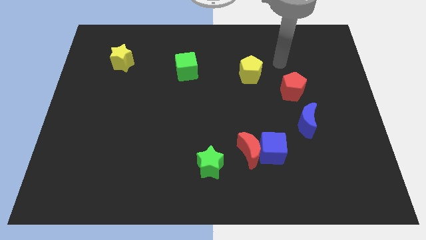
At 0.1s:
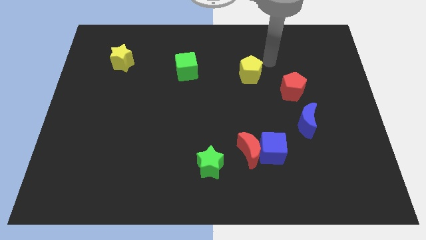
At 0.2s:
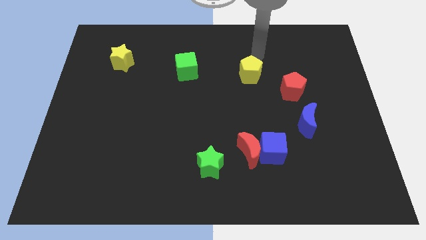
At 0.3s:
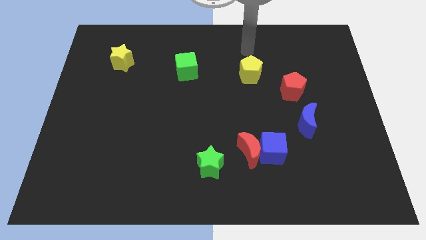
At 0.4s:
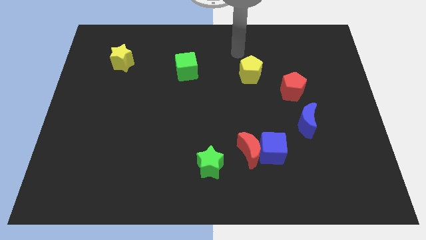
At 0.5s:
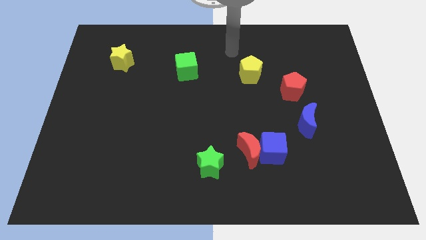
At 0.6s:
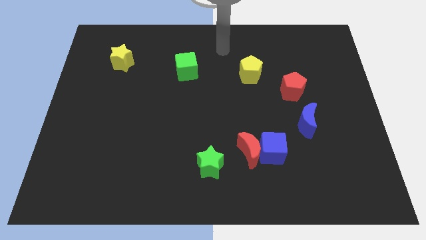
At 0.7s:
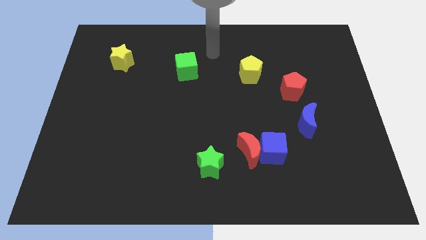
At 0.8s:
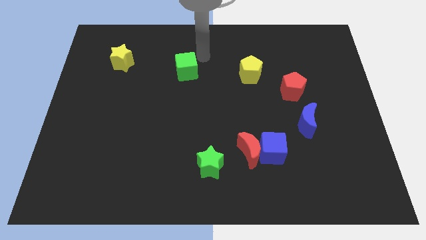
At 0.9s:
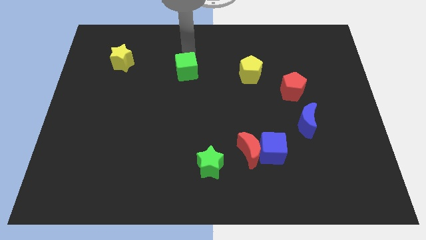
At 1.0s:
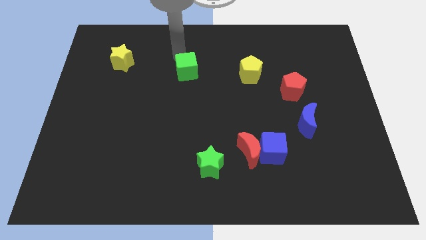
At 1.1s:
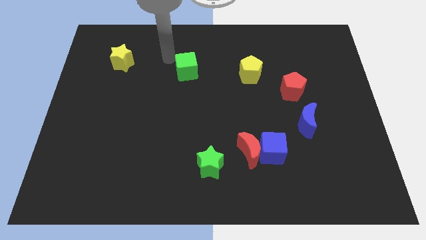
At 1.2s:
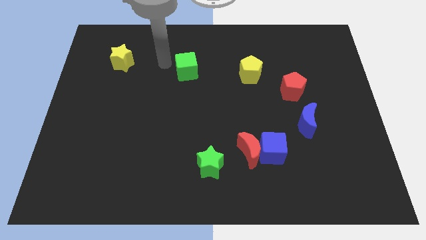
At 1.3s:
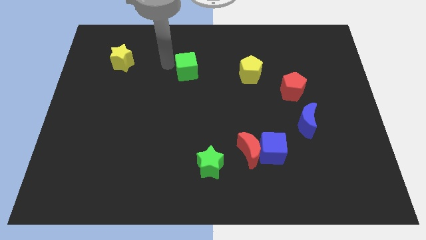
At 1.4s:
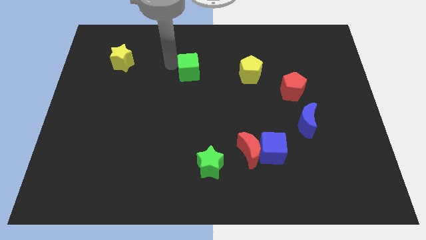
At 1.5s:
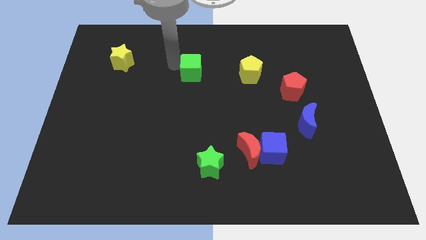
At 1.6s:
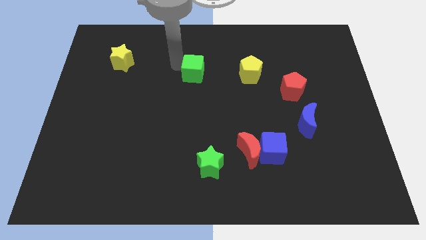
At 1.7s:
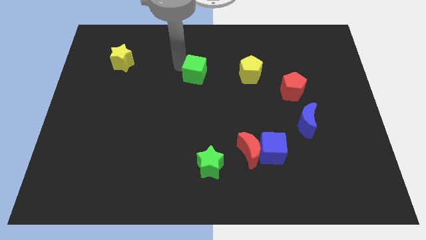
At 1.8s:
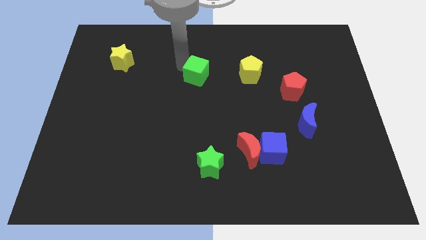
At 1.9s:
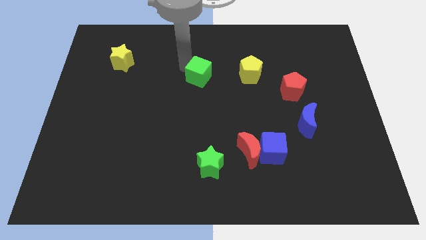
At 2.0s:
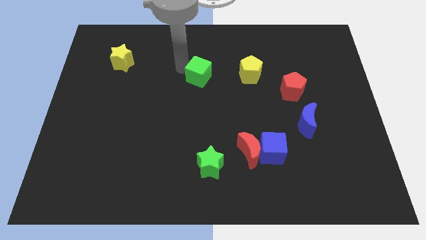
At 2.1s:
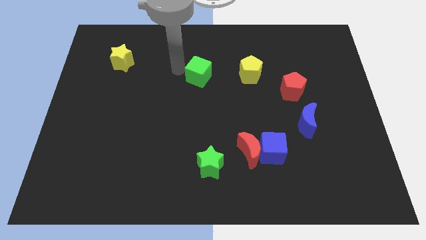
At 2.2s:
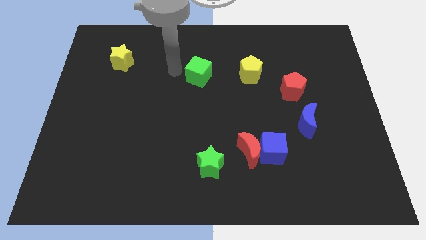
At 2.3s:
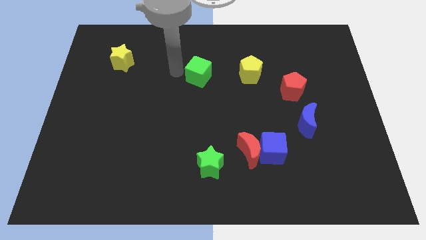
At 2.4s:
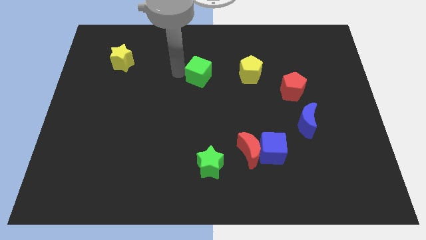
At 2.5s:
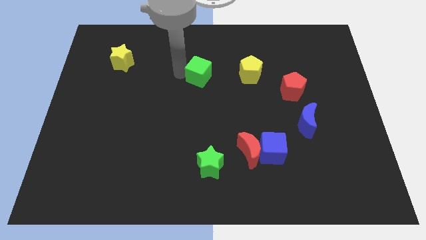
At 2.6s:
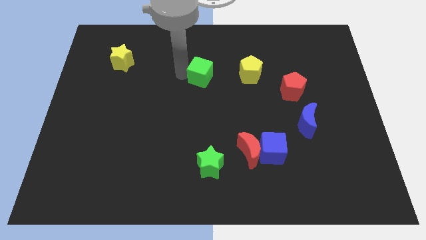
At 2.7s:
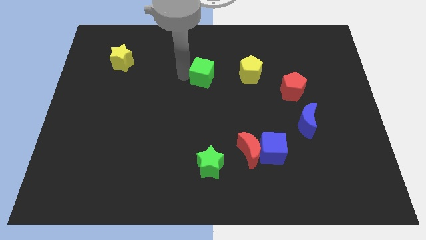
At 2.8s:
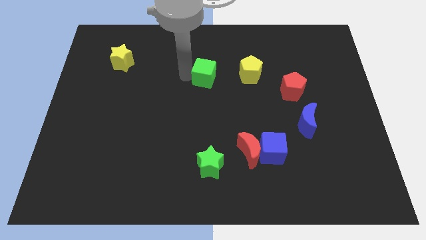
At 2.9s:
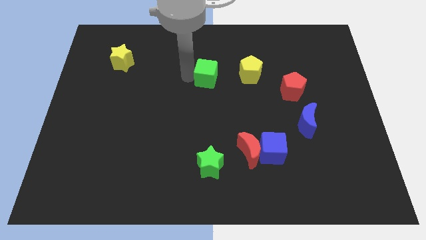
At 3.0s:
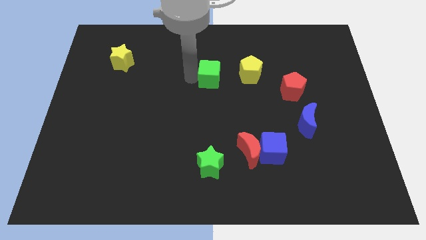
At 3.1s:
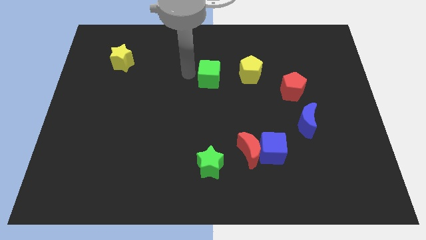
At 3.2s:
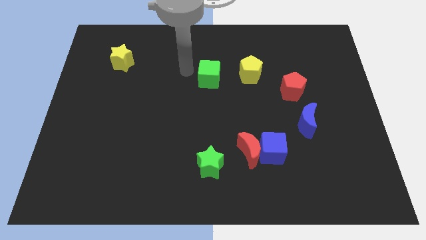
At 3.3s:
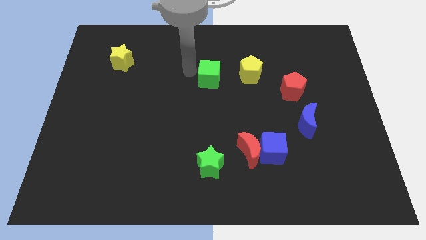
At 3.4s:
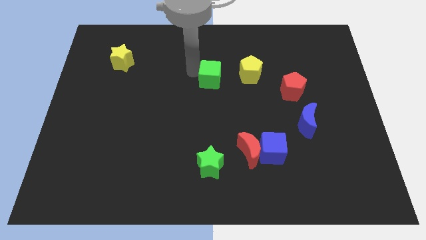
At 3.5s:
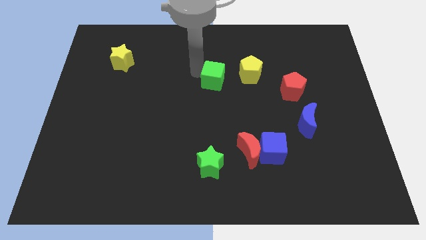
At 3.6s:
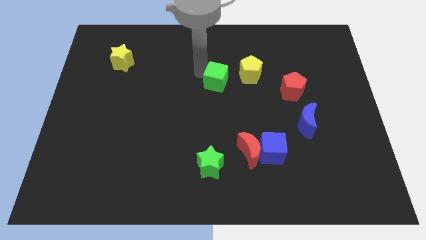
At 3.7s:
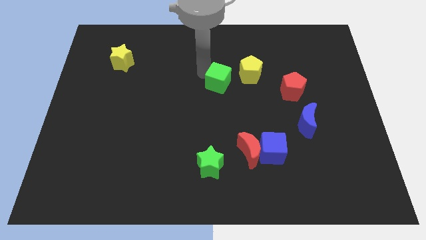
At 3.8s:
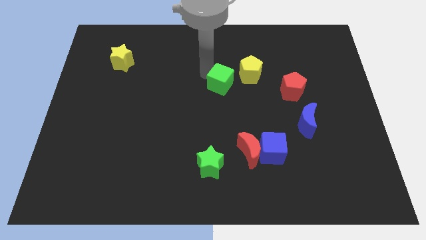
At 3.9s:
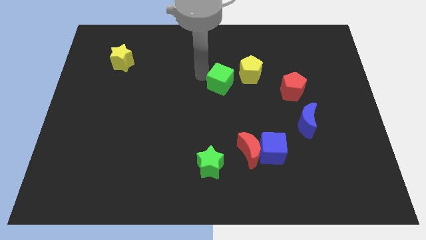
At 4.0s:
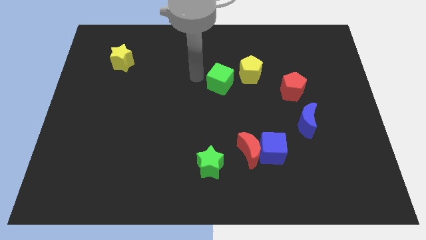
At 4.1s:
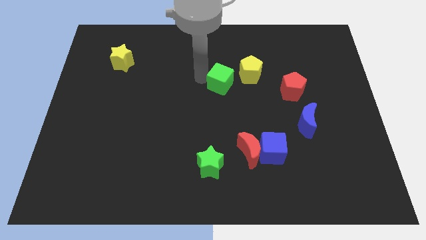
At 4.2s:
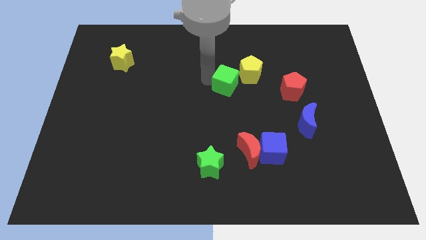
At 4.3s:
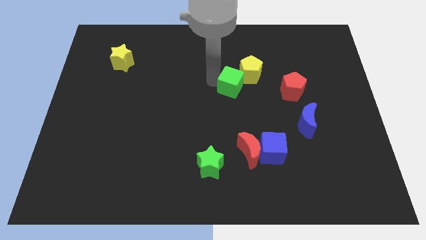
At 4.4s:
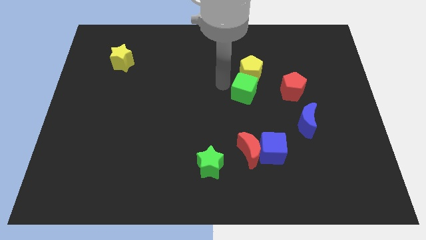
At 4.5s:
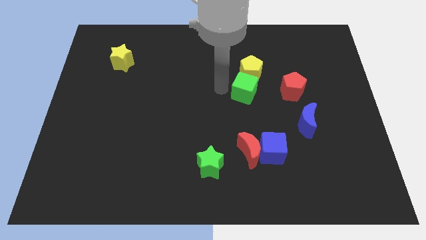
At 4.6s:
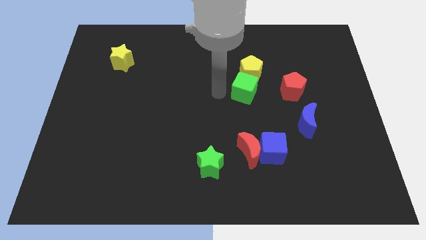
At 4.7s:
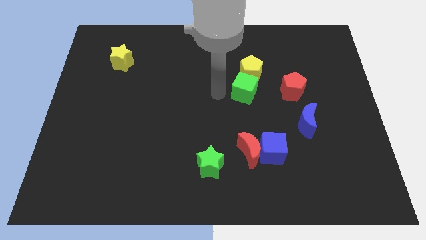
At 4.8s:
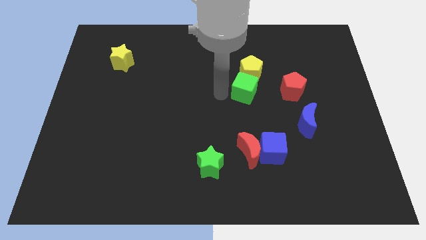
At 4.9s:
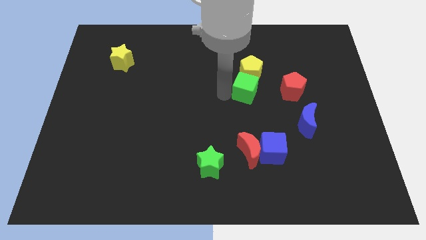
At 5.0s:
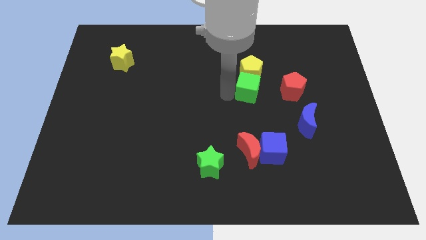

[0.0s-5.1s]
move the green cube diagonally down and to the right of the yellow pentagon

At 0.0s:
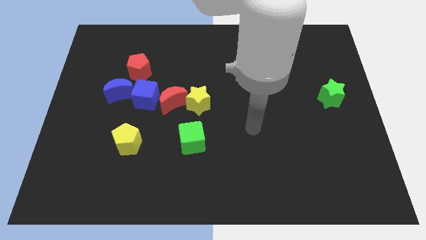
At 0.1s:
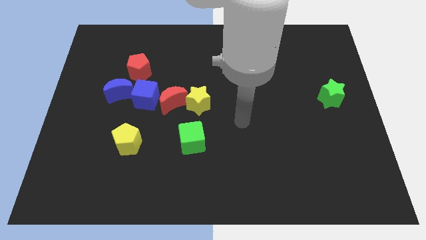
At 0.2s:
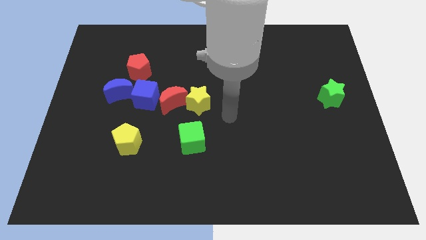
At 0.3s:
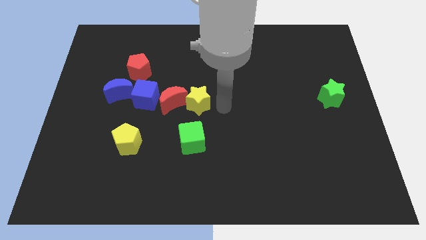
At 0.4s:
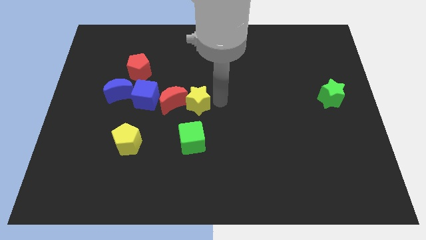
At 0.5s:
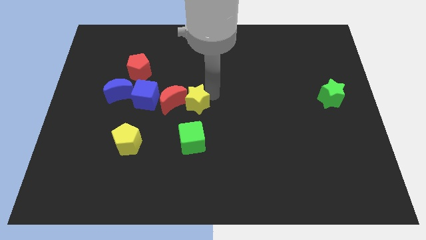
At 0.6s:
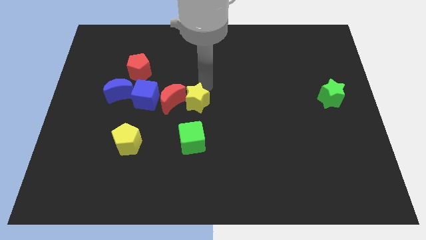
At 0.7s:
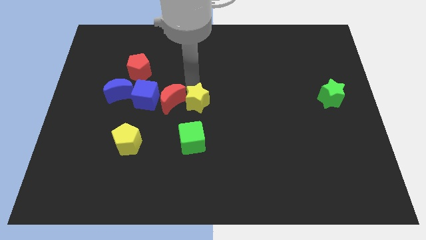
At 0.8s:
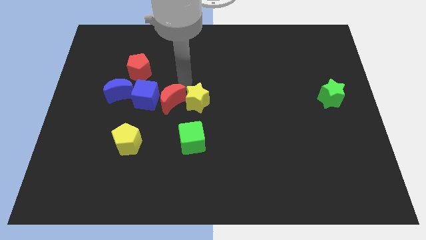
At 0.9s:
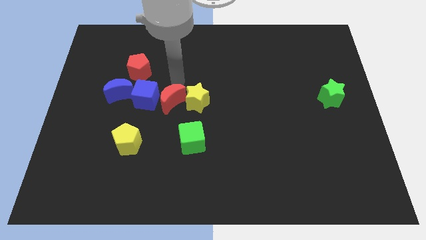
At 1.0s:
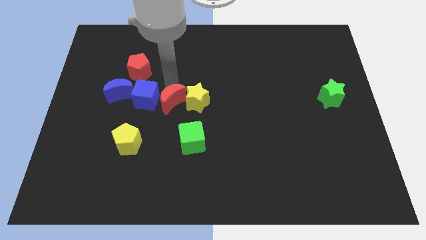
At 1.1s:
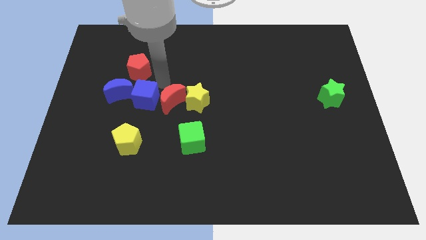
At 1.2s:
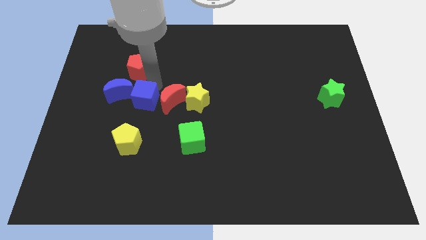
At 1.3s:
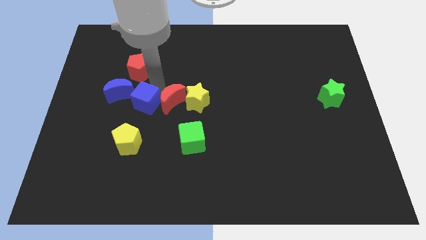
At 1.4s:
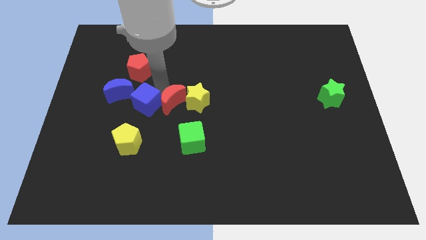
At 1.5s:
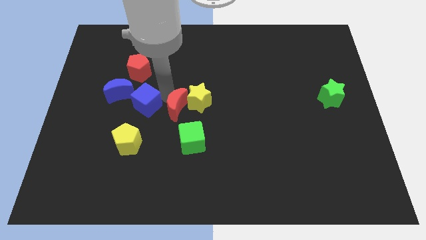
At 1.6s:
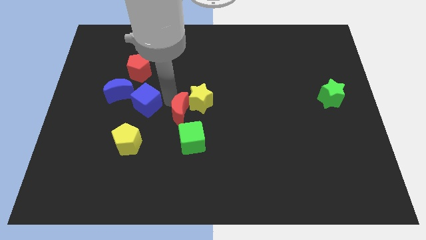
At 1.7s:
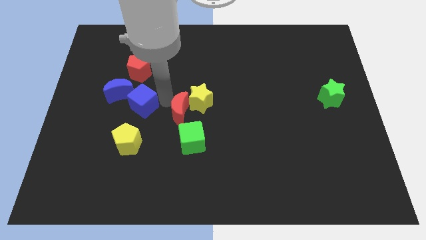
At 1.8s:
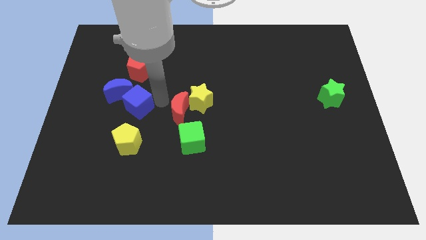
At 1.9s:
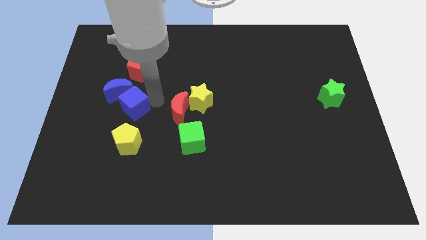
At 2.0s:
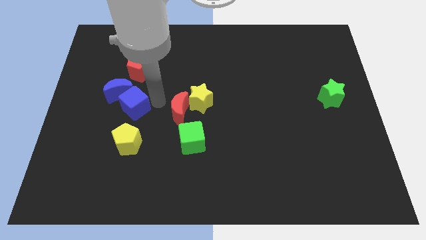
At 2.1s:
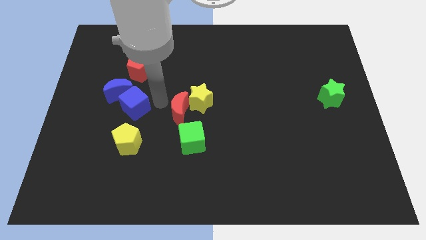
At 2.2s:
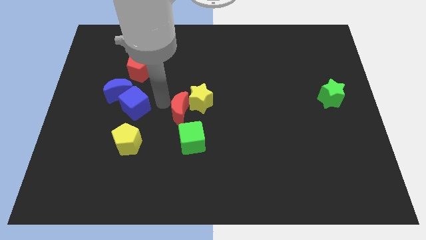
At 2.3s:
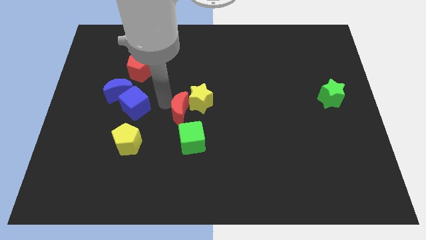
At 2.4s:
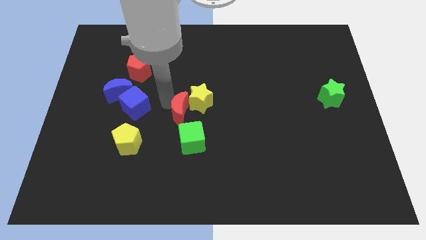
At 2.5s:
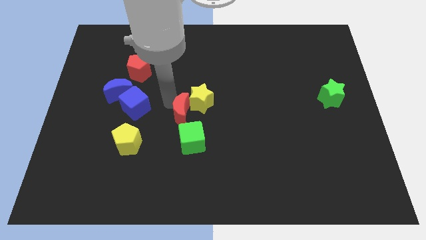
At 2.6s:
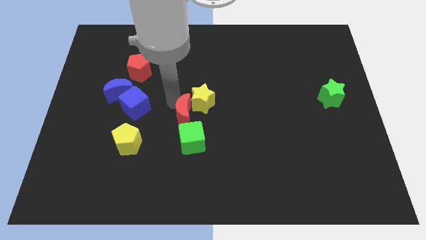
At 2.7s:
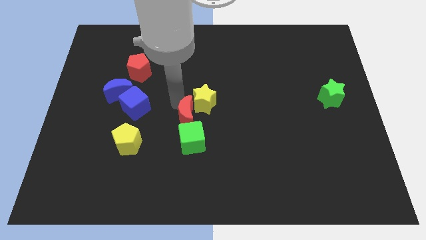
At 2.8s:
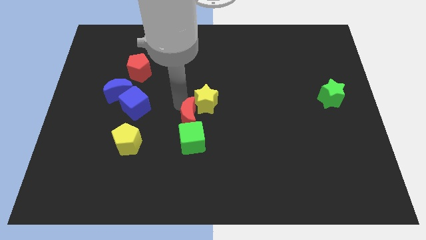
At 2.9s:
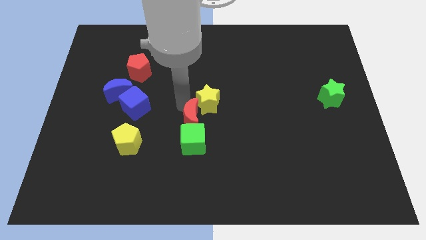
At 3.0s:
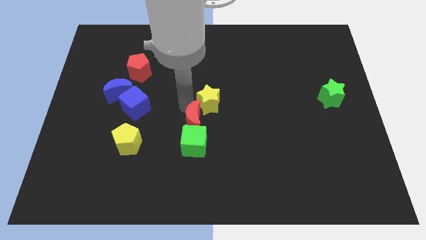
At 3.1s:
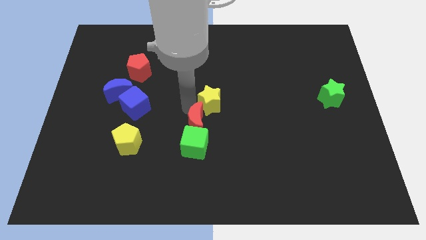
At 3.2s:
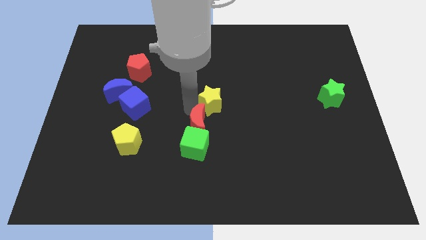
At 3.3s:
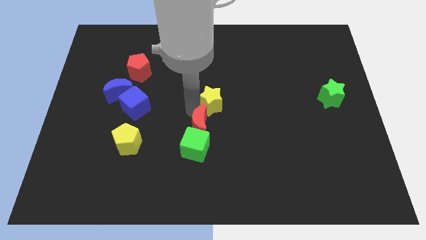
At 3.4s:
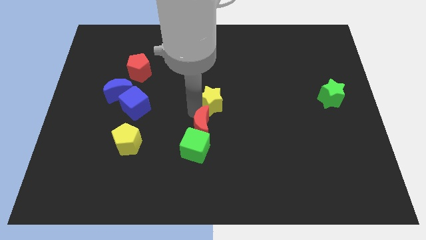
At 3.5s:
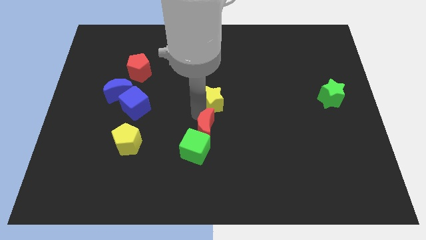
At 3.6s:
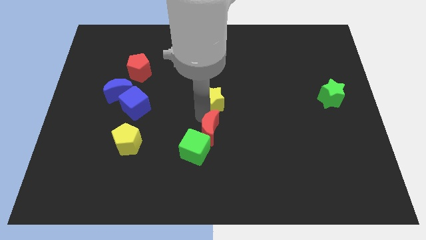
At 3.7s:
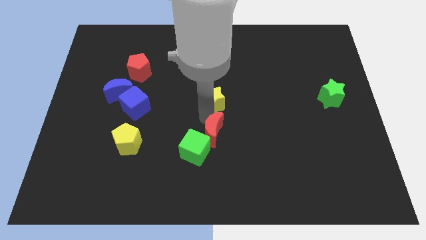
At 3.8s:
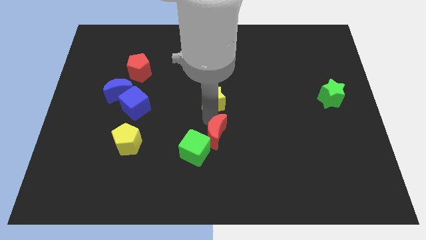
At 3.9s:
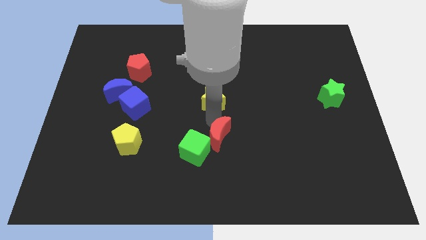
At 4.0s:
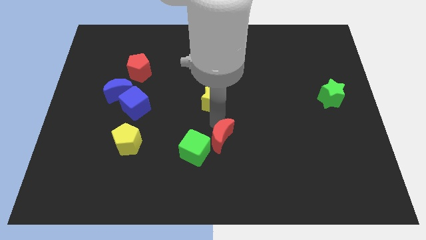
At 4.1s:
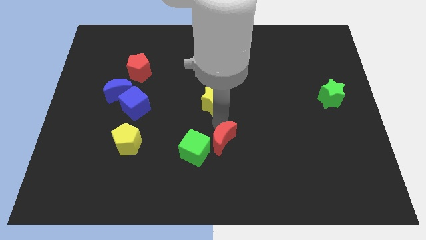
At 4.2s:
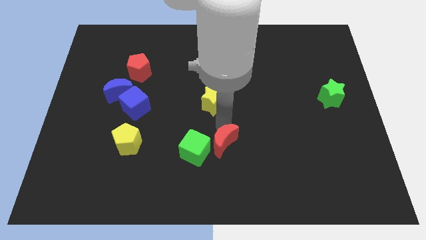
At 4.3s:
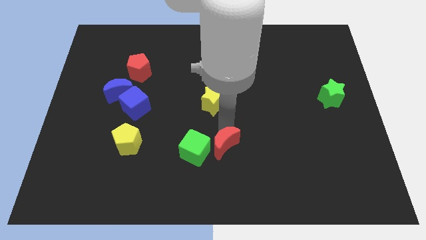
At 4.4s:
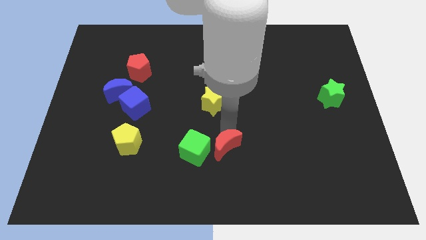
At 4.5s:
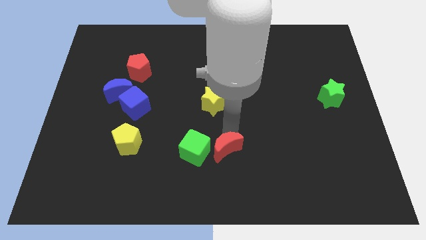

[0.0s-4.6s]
put the red moon diagonally down and to the right of the green cube
